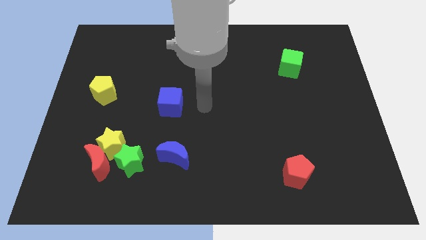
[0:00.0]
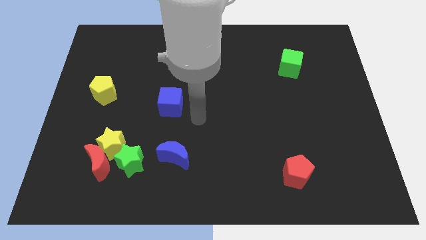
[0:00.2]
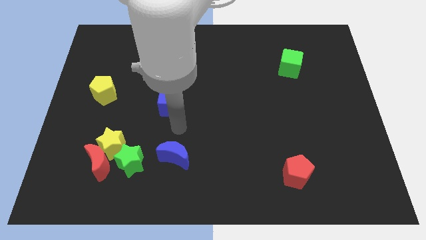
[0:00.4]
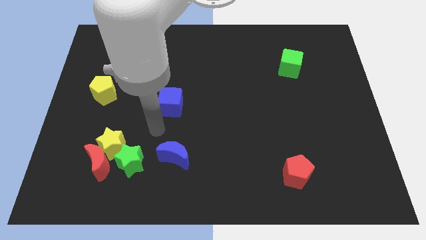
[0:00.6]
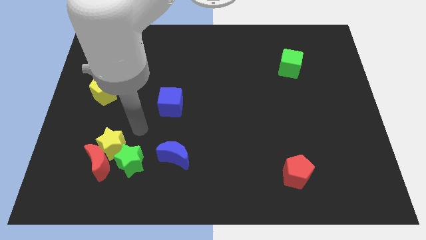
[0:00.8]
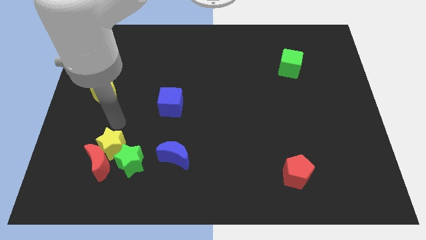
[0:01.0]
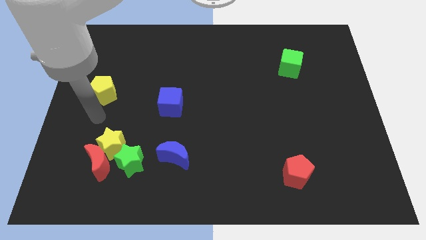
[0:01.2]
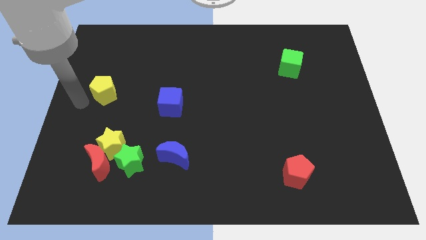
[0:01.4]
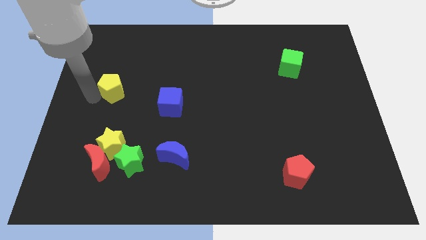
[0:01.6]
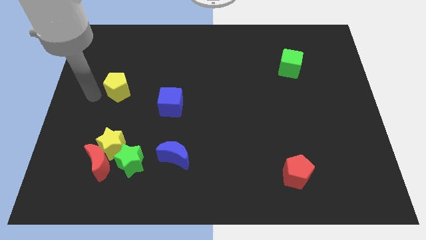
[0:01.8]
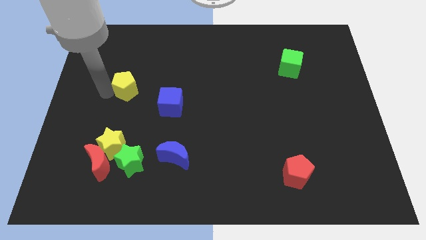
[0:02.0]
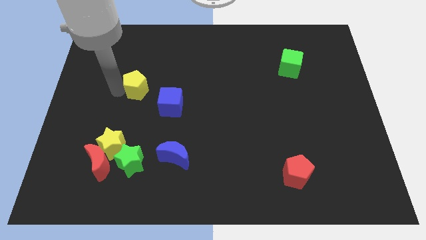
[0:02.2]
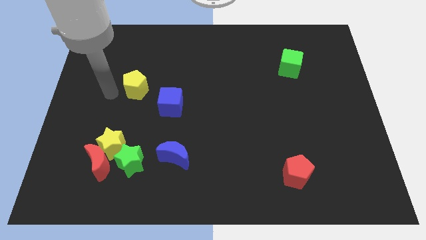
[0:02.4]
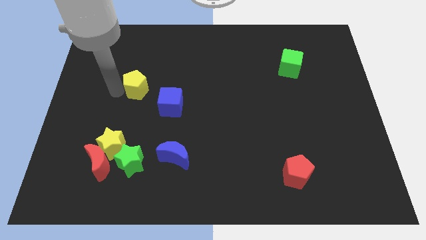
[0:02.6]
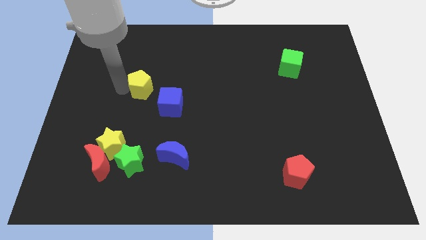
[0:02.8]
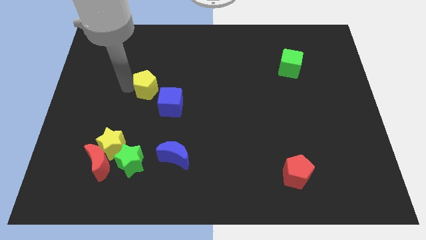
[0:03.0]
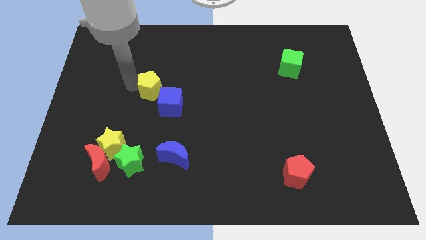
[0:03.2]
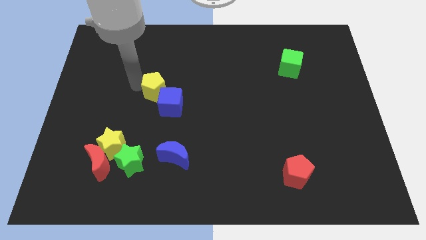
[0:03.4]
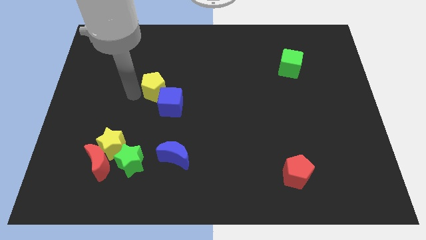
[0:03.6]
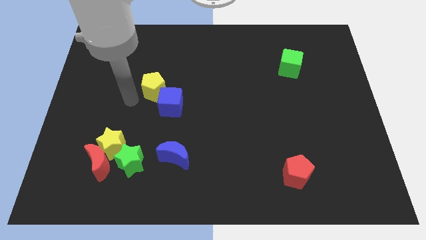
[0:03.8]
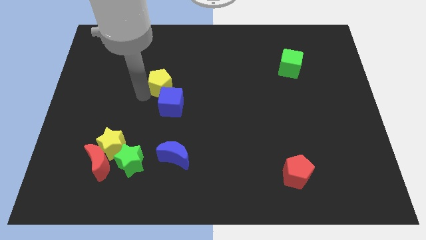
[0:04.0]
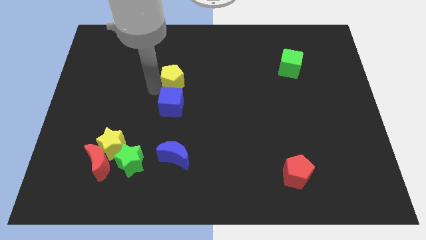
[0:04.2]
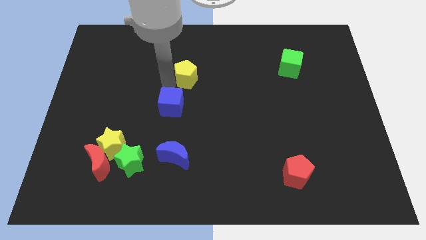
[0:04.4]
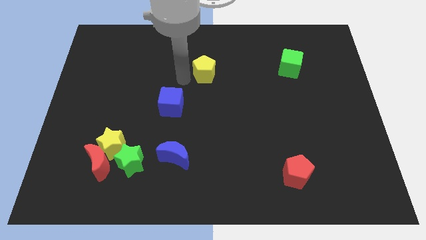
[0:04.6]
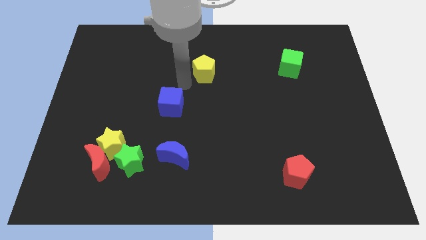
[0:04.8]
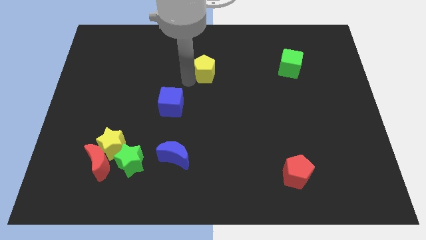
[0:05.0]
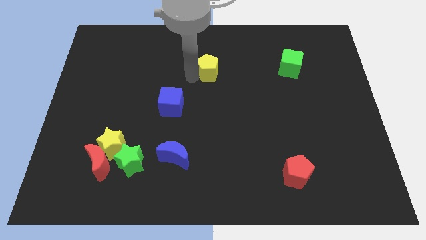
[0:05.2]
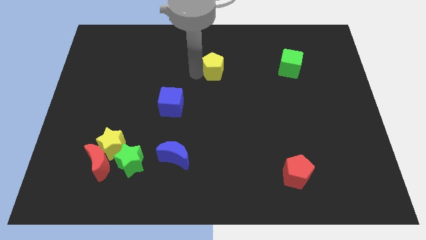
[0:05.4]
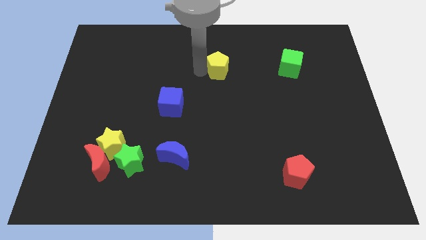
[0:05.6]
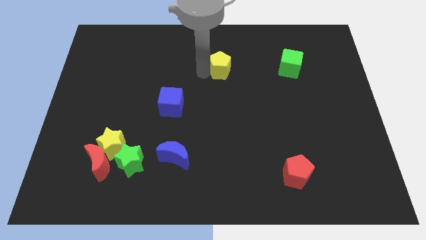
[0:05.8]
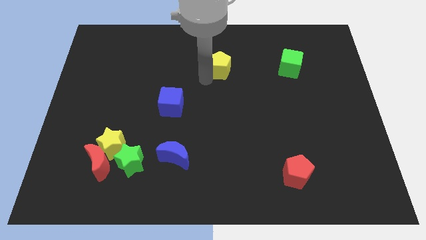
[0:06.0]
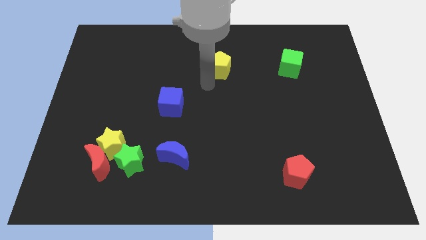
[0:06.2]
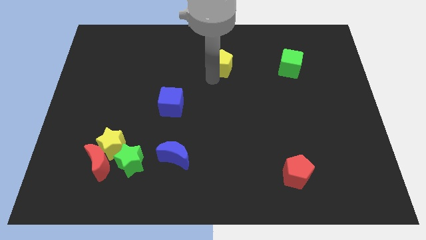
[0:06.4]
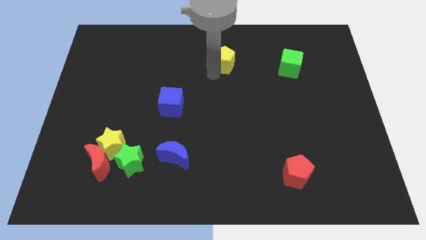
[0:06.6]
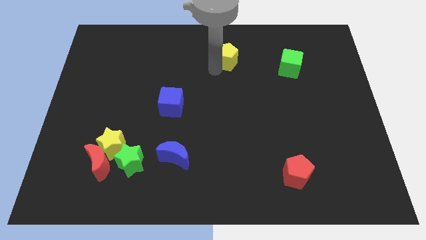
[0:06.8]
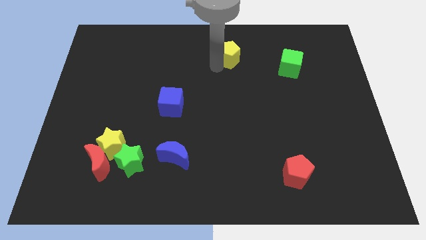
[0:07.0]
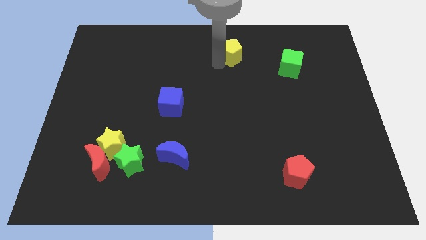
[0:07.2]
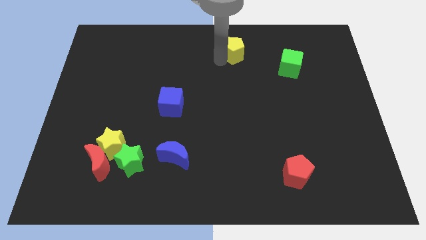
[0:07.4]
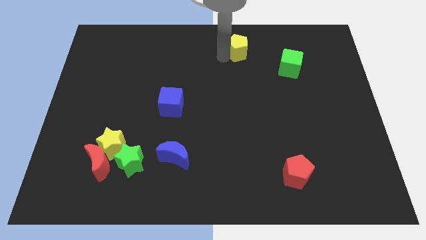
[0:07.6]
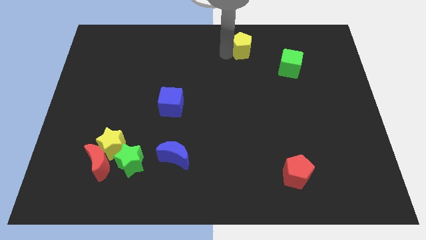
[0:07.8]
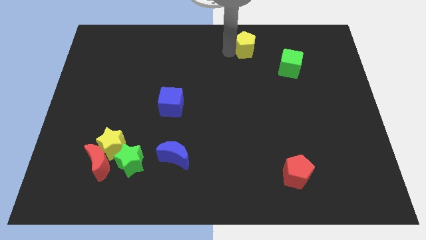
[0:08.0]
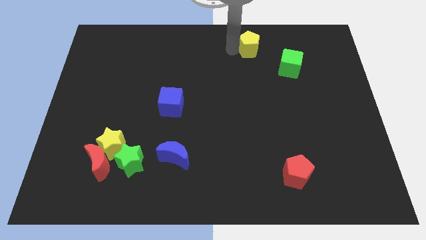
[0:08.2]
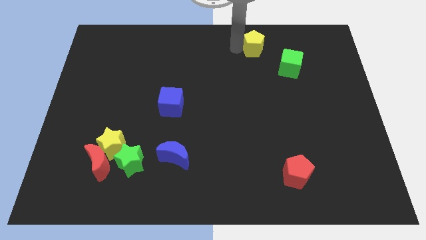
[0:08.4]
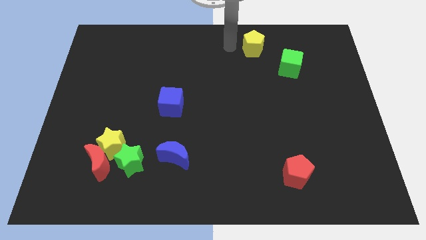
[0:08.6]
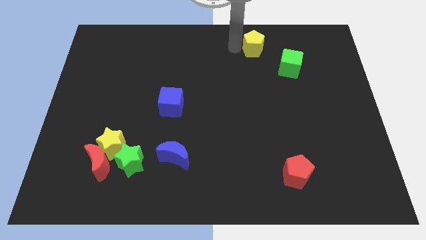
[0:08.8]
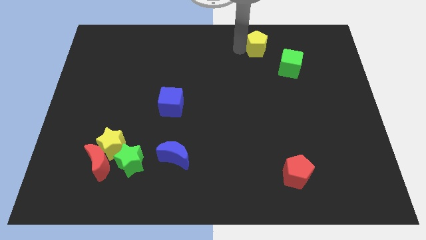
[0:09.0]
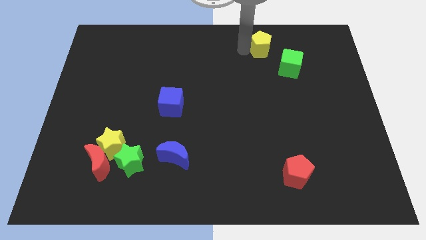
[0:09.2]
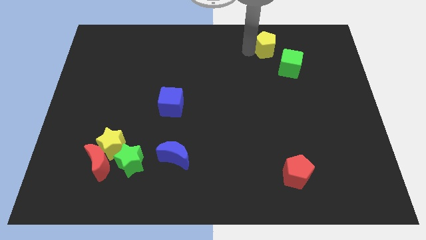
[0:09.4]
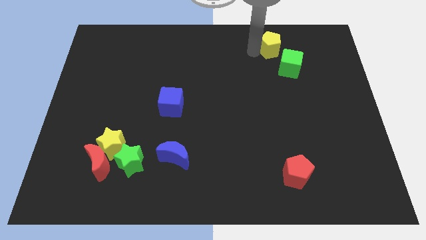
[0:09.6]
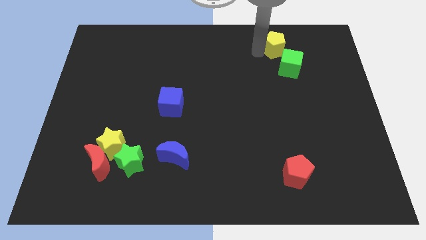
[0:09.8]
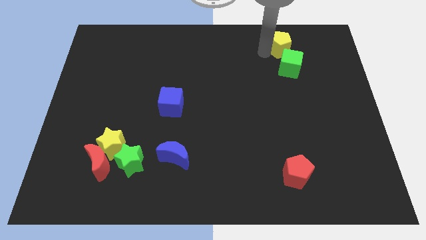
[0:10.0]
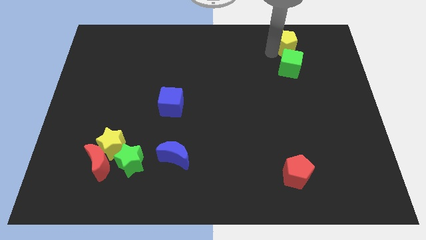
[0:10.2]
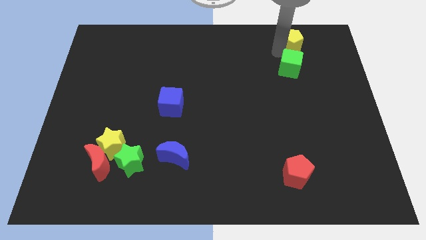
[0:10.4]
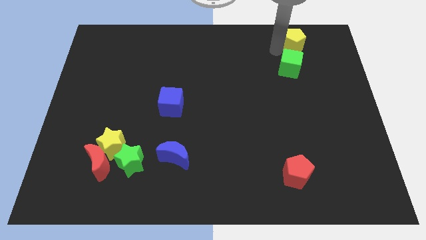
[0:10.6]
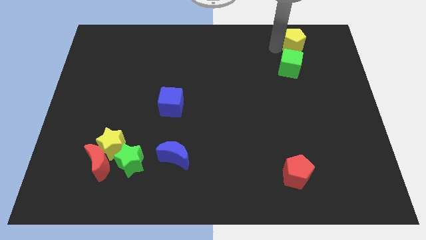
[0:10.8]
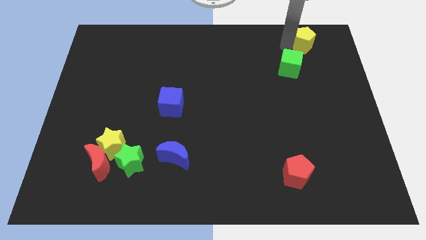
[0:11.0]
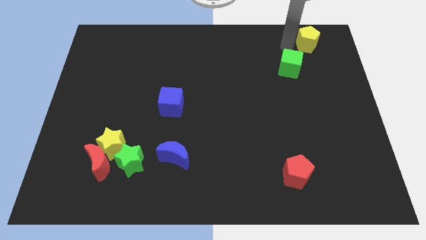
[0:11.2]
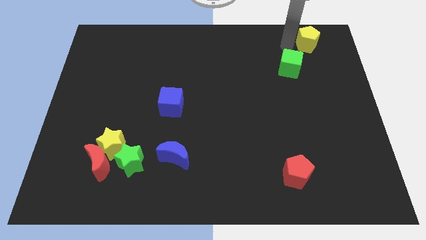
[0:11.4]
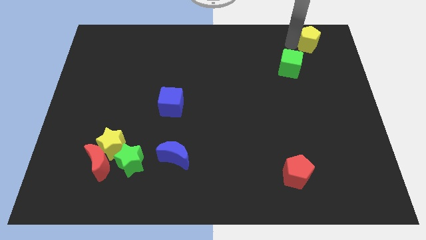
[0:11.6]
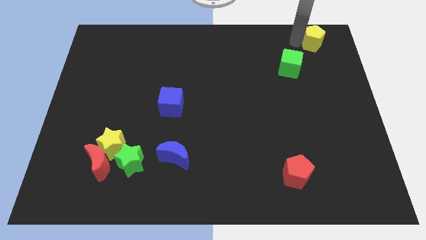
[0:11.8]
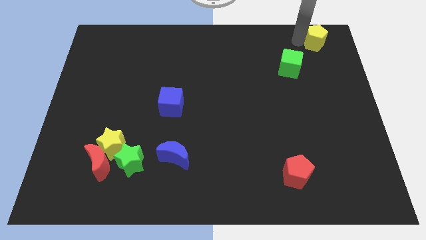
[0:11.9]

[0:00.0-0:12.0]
slide the yellow pentagon to the top right of the board
